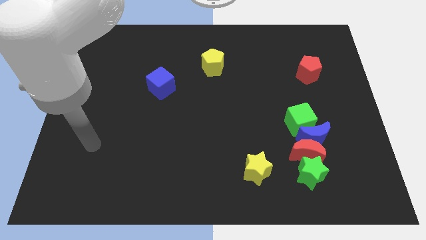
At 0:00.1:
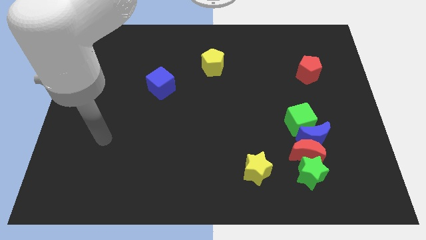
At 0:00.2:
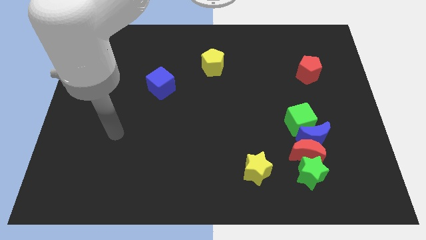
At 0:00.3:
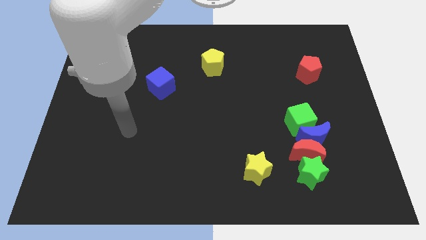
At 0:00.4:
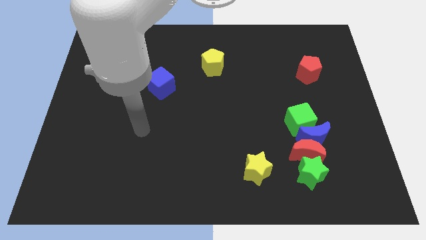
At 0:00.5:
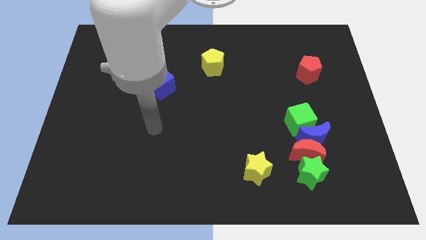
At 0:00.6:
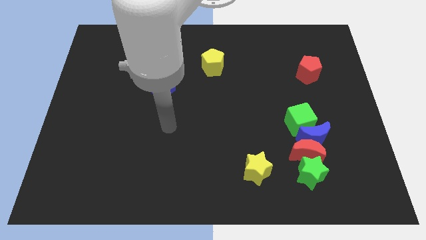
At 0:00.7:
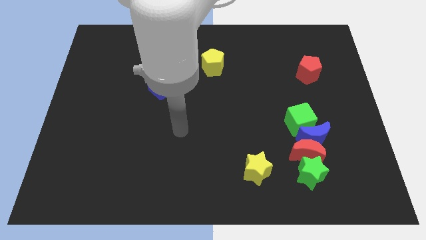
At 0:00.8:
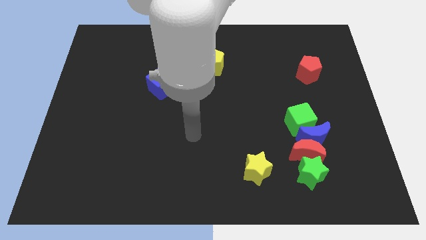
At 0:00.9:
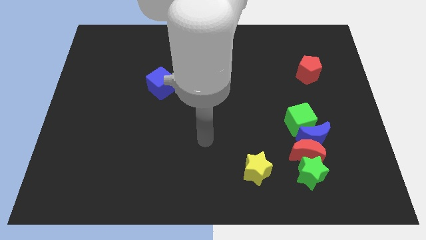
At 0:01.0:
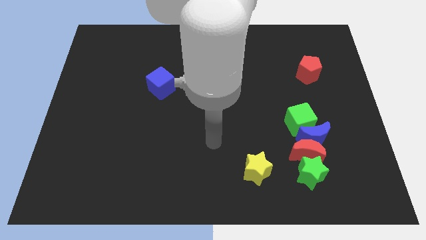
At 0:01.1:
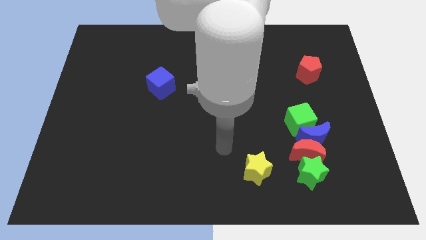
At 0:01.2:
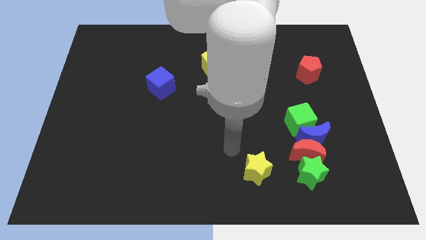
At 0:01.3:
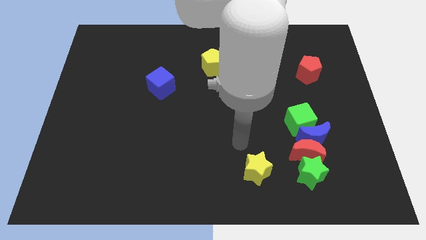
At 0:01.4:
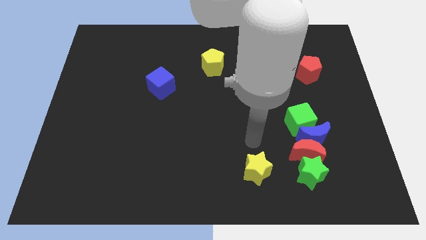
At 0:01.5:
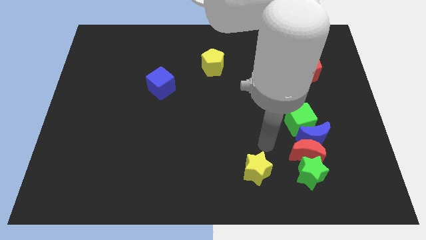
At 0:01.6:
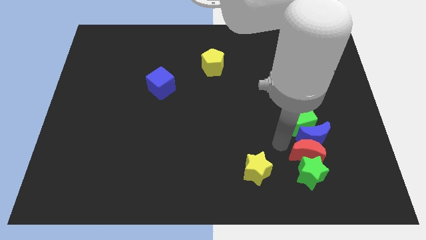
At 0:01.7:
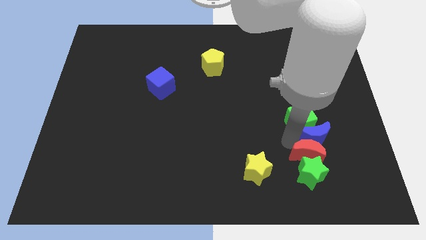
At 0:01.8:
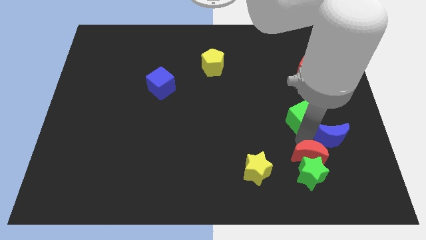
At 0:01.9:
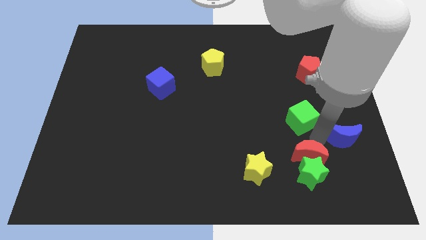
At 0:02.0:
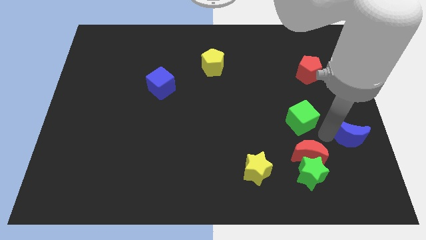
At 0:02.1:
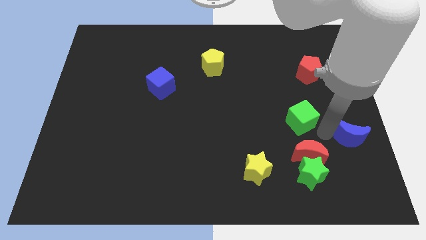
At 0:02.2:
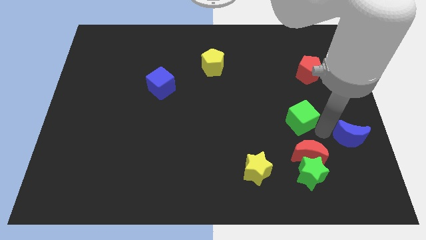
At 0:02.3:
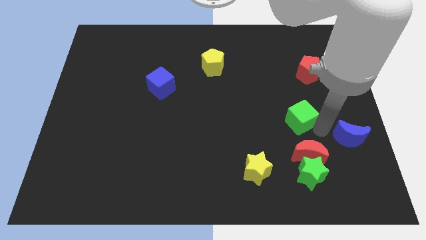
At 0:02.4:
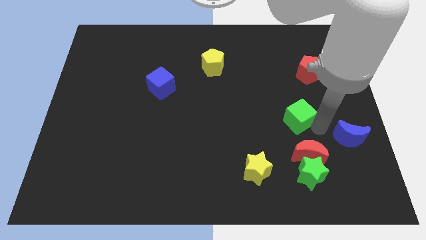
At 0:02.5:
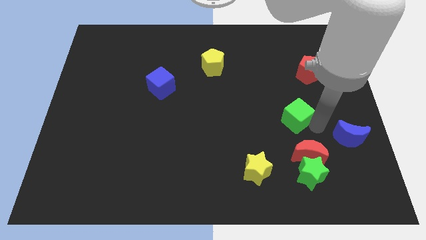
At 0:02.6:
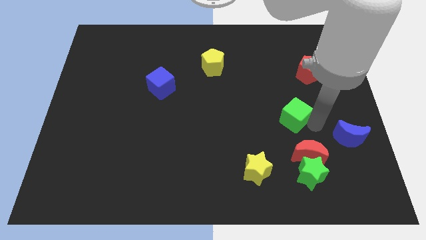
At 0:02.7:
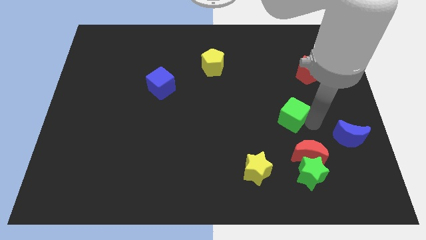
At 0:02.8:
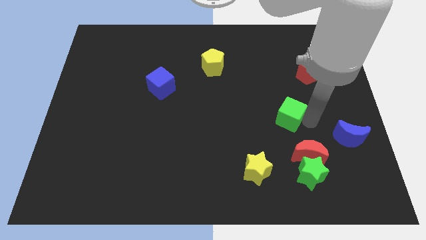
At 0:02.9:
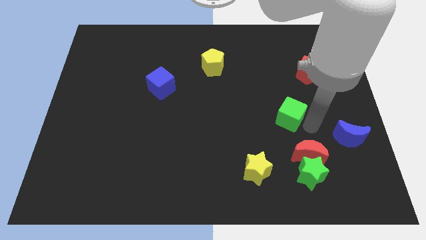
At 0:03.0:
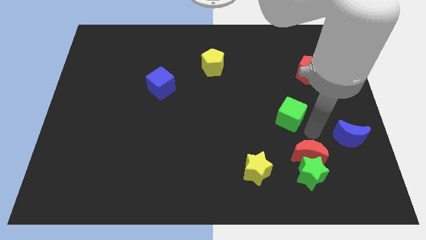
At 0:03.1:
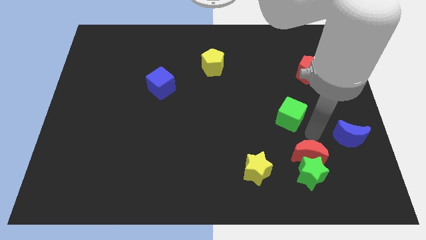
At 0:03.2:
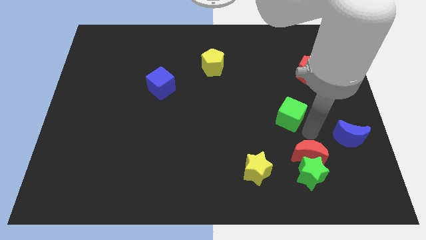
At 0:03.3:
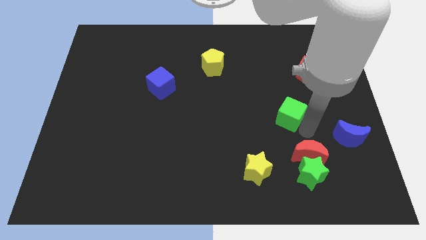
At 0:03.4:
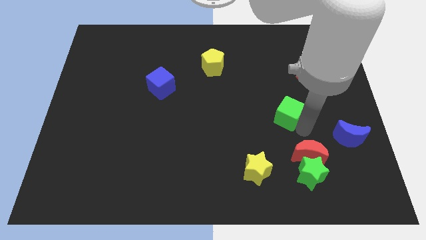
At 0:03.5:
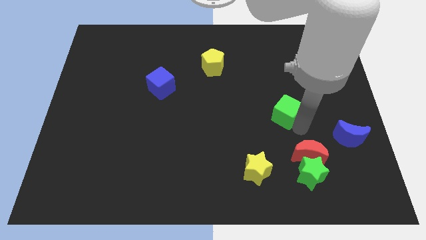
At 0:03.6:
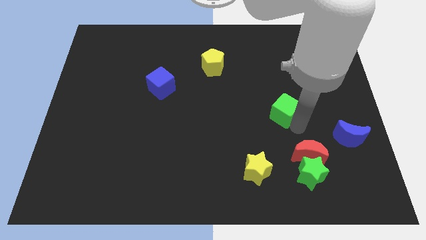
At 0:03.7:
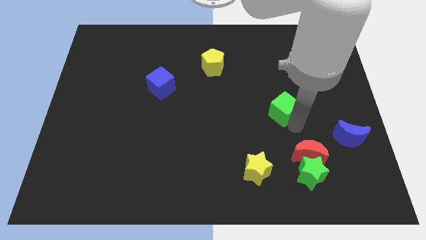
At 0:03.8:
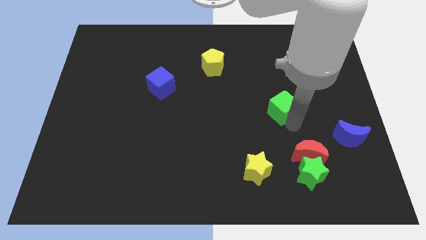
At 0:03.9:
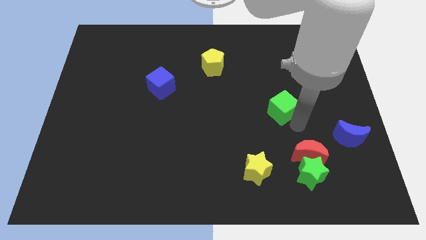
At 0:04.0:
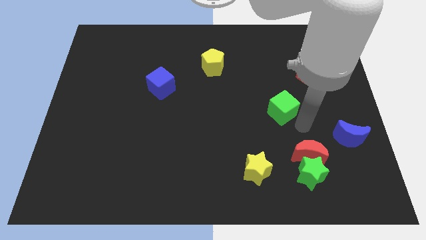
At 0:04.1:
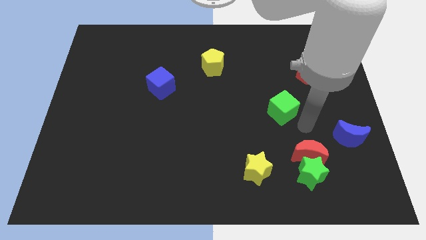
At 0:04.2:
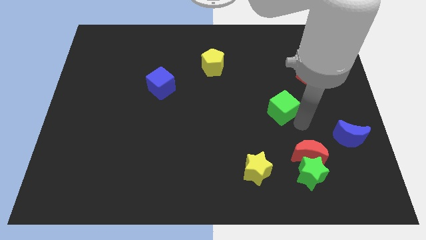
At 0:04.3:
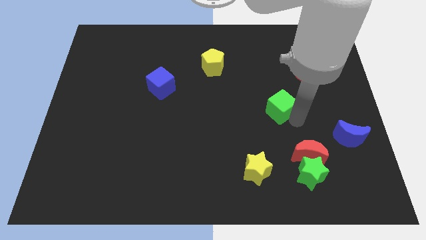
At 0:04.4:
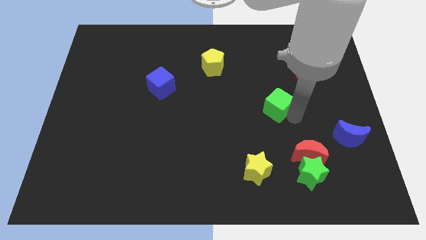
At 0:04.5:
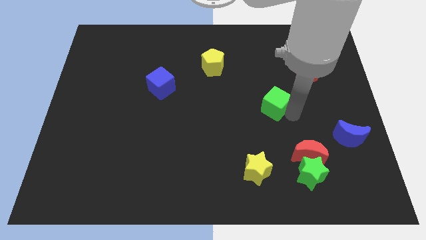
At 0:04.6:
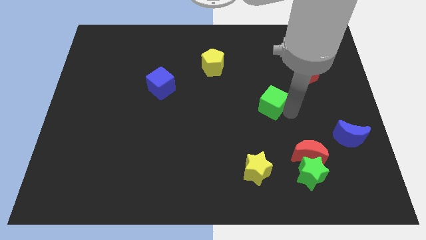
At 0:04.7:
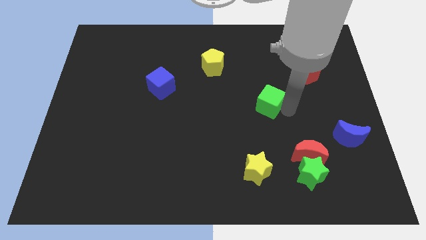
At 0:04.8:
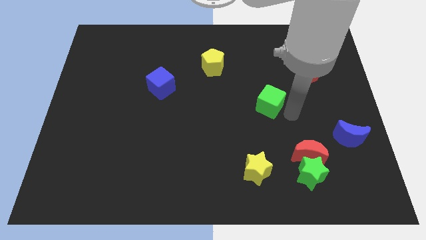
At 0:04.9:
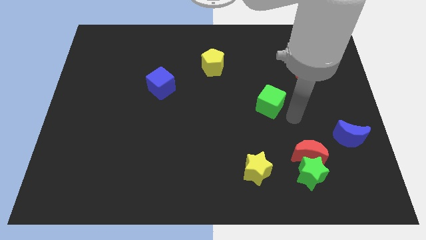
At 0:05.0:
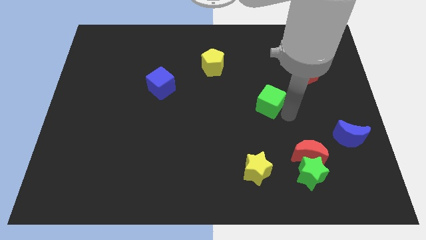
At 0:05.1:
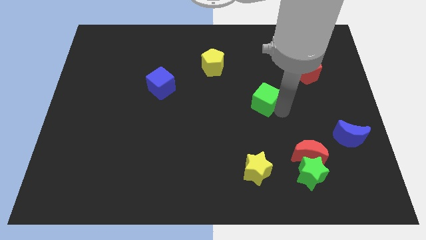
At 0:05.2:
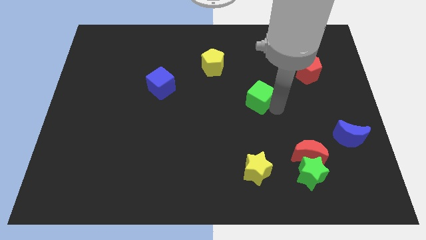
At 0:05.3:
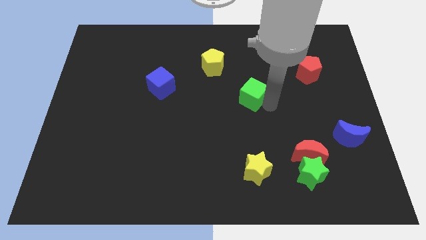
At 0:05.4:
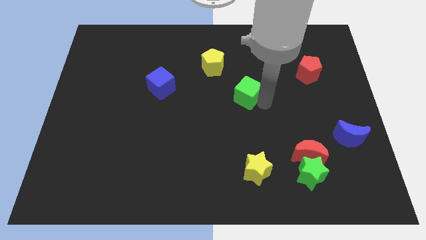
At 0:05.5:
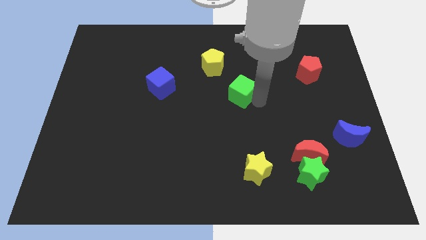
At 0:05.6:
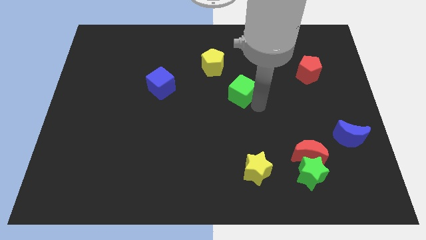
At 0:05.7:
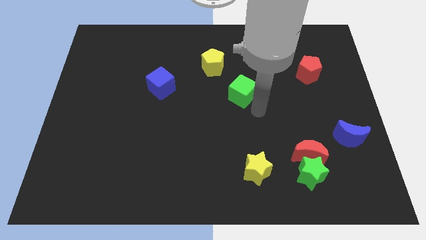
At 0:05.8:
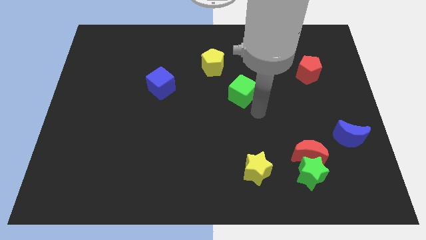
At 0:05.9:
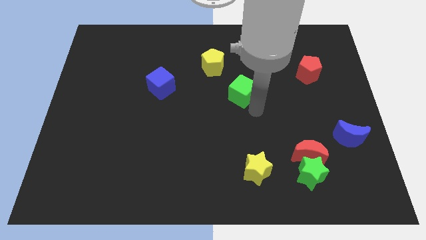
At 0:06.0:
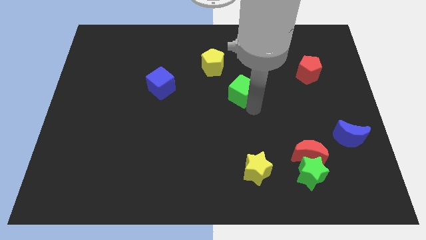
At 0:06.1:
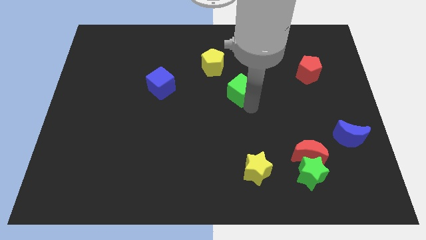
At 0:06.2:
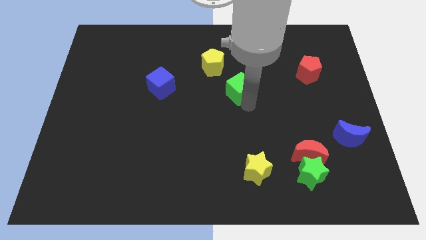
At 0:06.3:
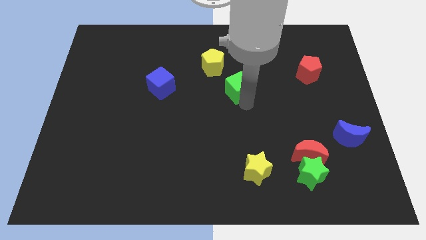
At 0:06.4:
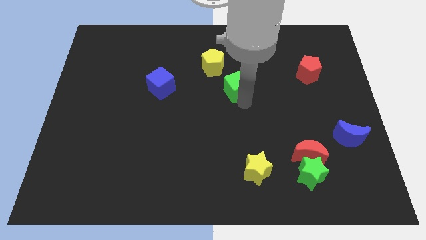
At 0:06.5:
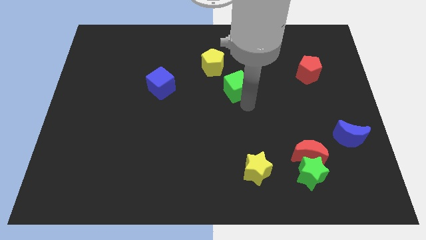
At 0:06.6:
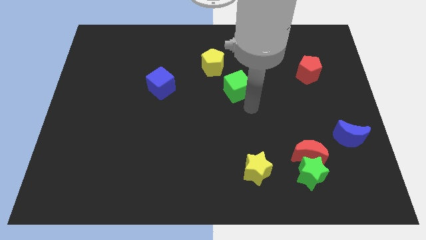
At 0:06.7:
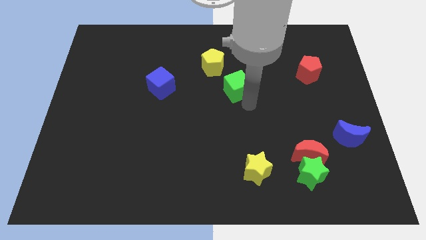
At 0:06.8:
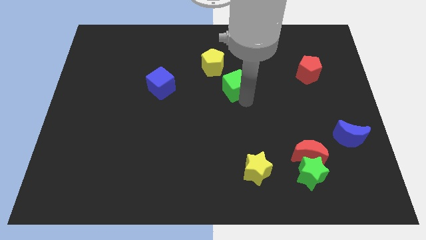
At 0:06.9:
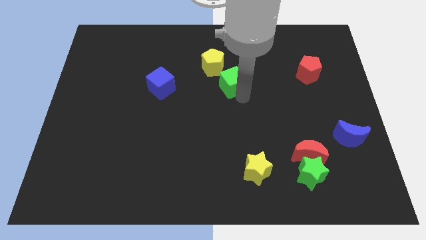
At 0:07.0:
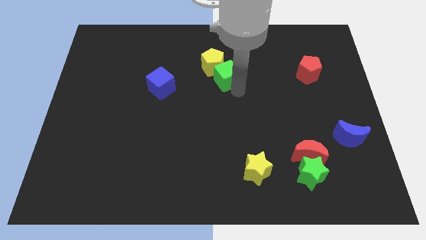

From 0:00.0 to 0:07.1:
push the green cube close to the yellow pentagon
